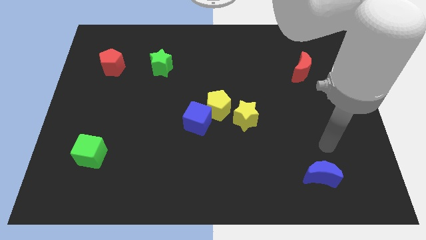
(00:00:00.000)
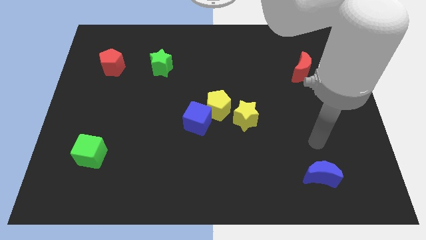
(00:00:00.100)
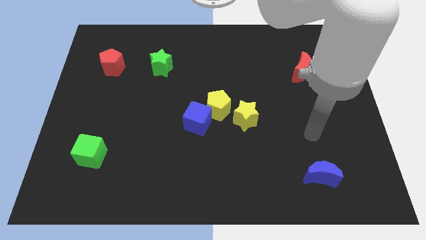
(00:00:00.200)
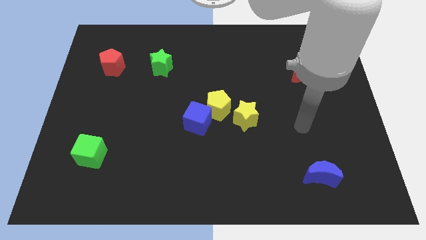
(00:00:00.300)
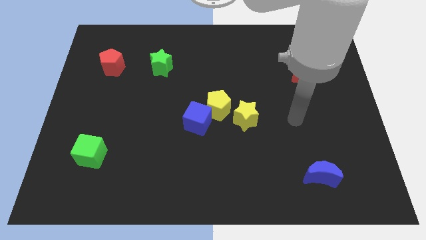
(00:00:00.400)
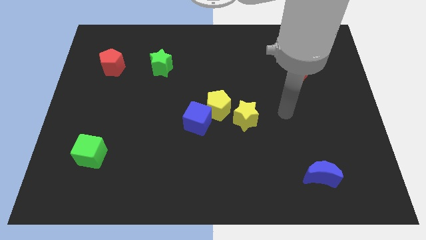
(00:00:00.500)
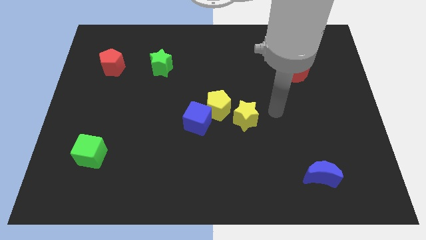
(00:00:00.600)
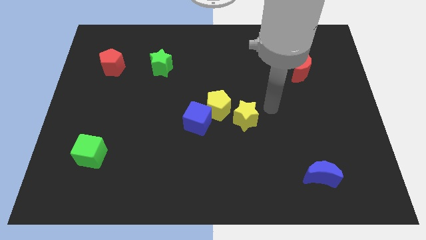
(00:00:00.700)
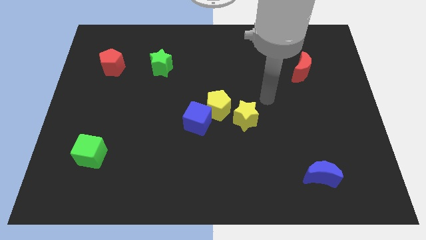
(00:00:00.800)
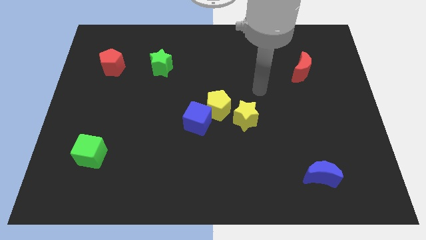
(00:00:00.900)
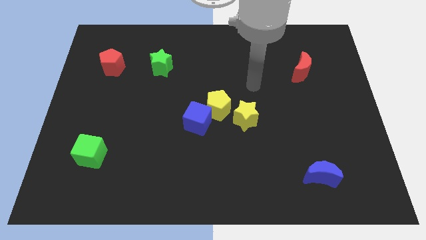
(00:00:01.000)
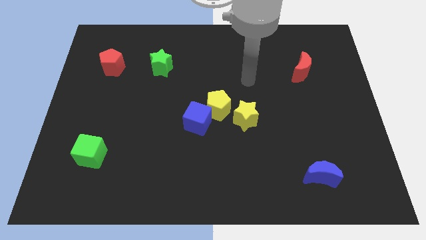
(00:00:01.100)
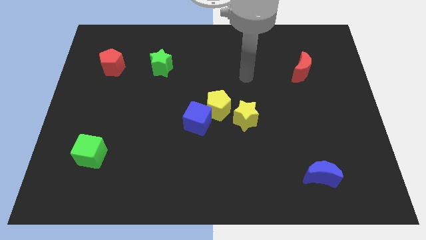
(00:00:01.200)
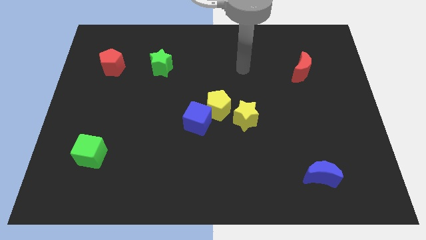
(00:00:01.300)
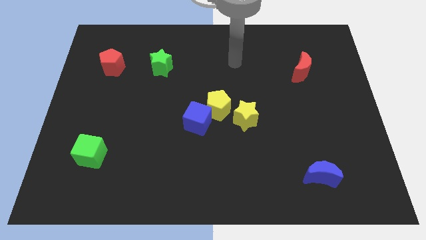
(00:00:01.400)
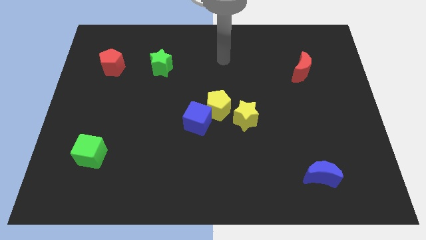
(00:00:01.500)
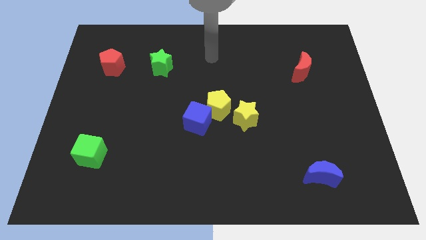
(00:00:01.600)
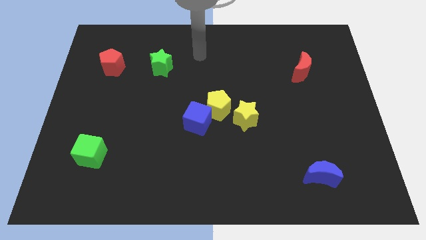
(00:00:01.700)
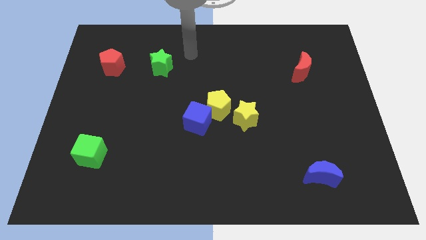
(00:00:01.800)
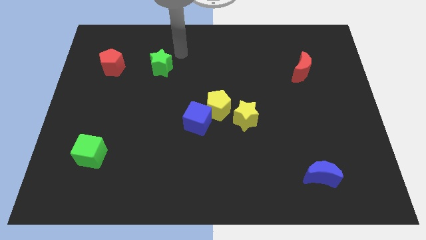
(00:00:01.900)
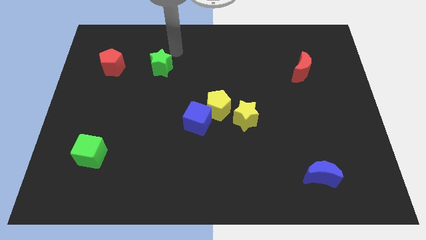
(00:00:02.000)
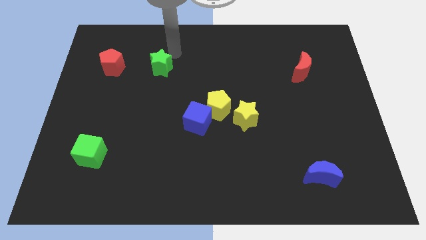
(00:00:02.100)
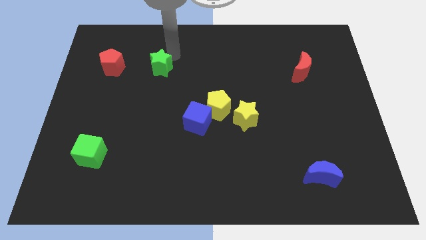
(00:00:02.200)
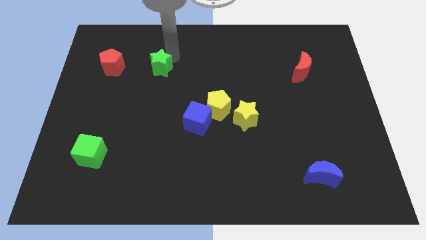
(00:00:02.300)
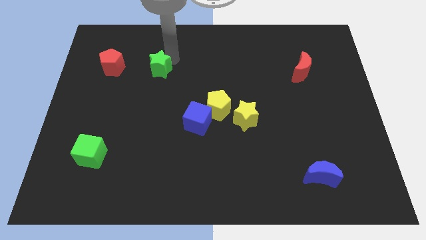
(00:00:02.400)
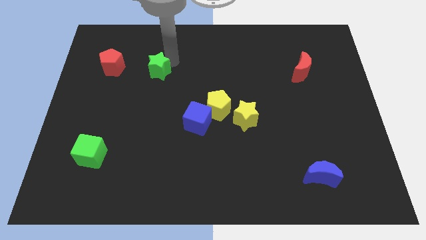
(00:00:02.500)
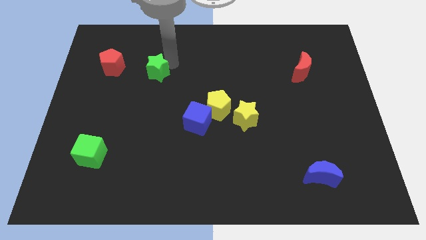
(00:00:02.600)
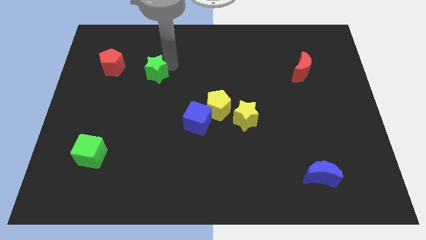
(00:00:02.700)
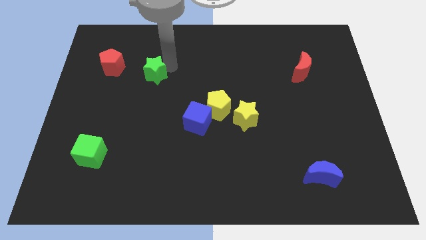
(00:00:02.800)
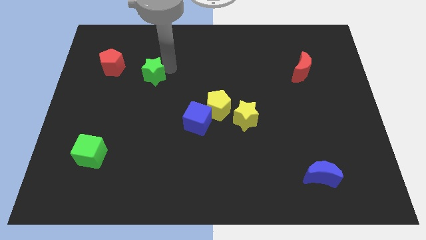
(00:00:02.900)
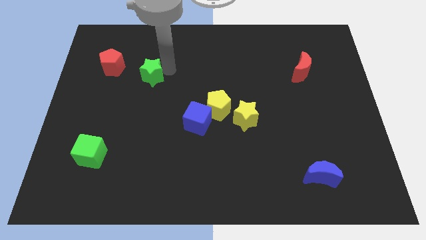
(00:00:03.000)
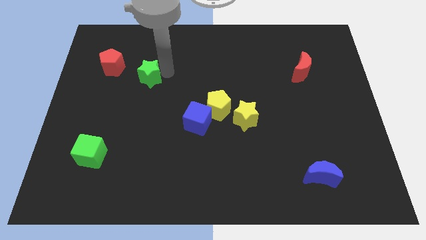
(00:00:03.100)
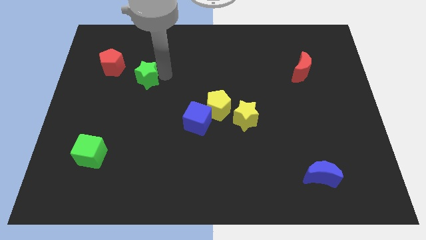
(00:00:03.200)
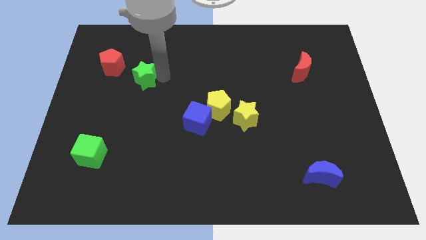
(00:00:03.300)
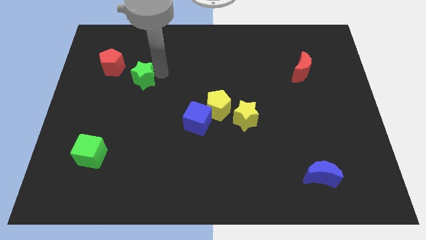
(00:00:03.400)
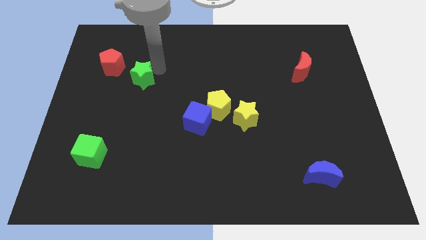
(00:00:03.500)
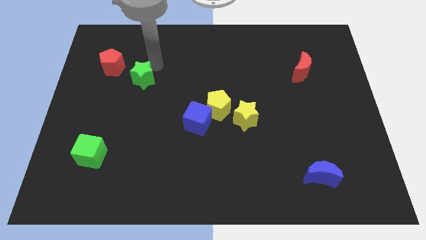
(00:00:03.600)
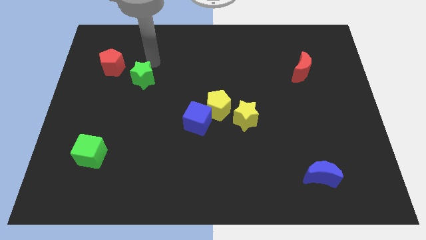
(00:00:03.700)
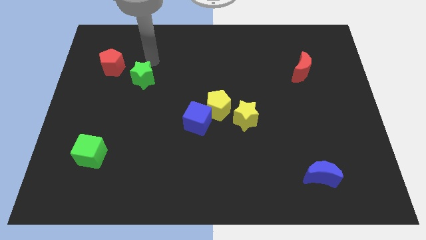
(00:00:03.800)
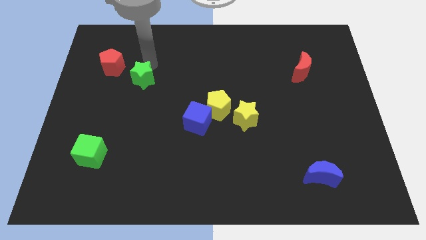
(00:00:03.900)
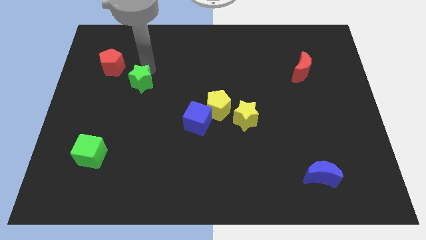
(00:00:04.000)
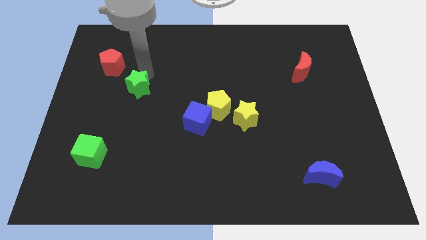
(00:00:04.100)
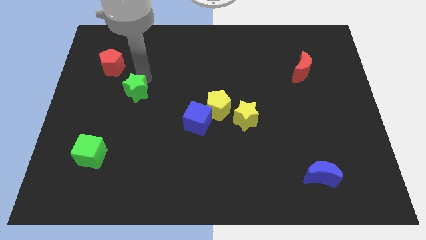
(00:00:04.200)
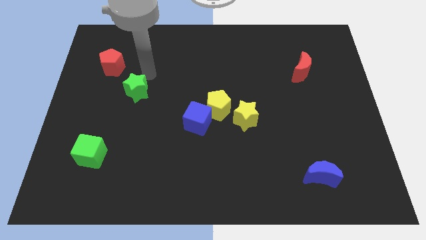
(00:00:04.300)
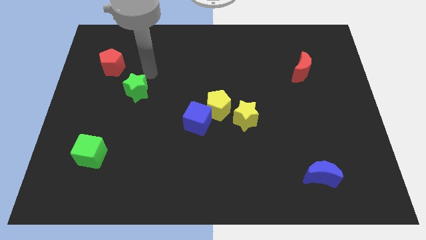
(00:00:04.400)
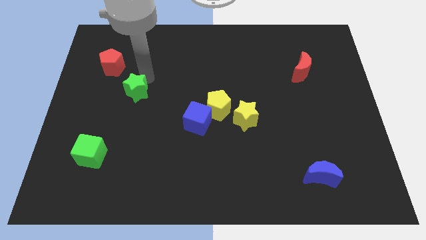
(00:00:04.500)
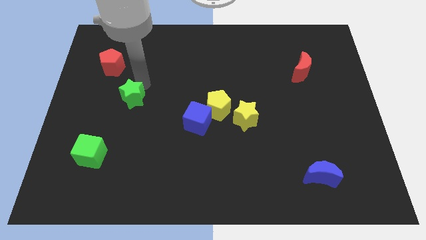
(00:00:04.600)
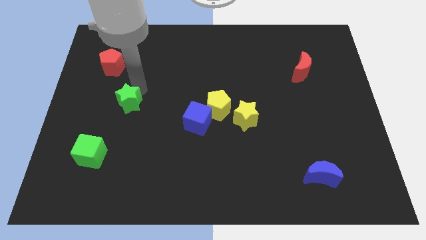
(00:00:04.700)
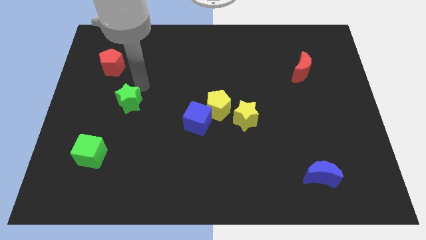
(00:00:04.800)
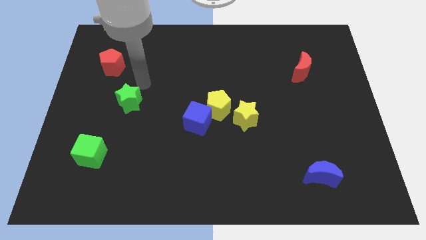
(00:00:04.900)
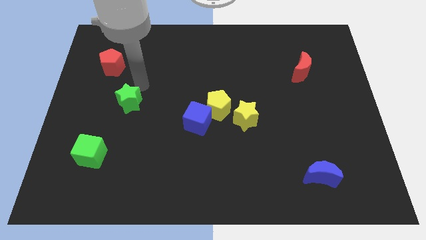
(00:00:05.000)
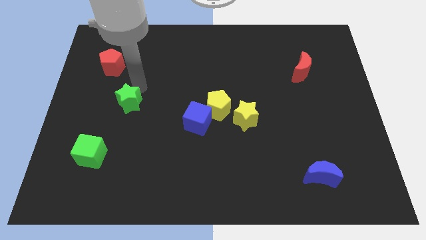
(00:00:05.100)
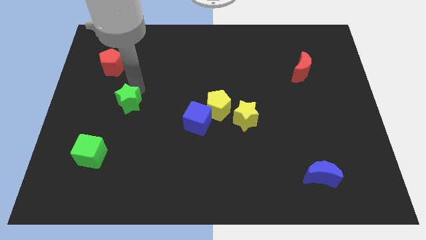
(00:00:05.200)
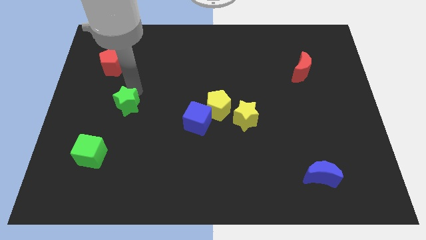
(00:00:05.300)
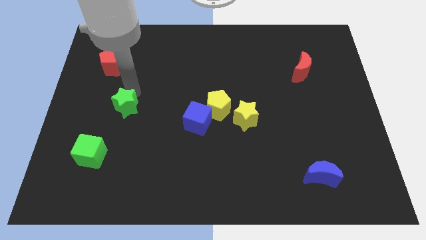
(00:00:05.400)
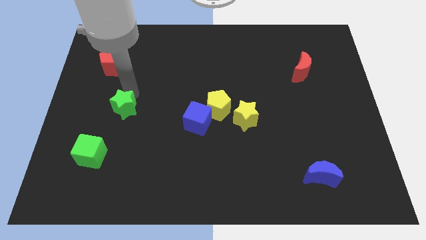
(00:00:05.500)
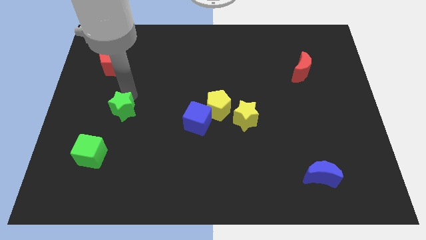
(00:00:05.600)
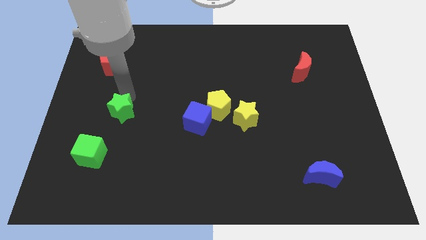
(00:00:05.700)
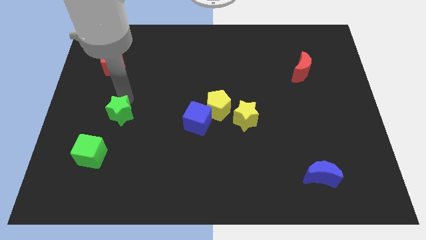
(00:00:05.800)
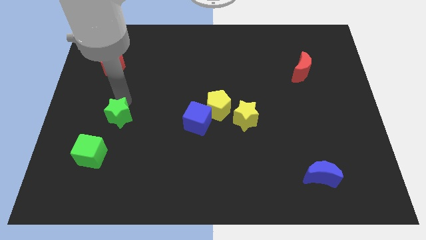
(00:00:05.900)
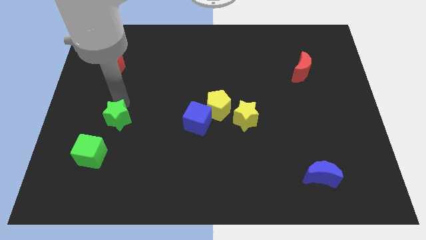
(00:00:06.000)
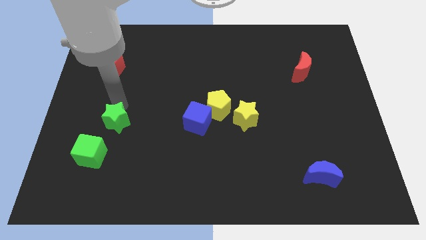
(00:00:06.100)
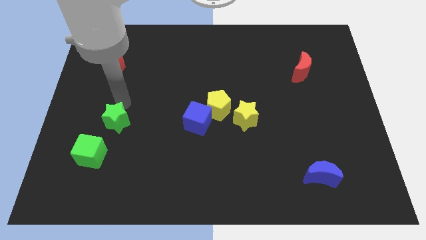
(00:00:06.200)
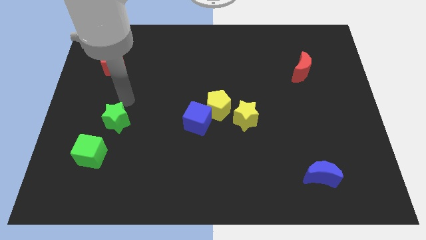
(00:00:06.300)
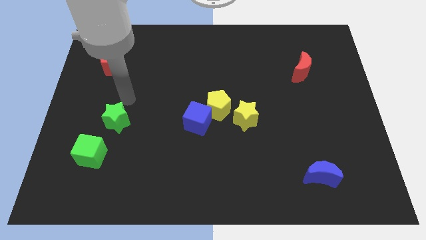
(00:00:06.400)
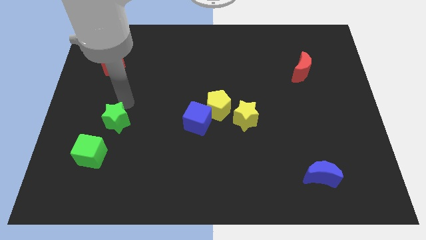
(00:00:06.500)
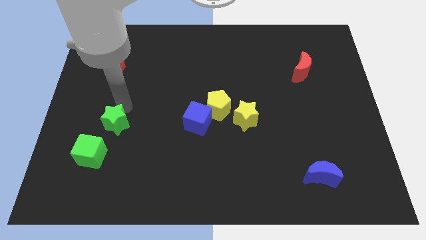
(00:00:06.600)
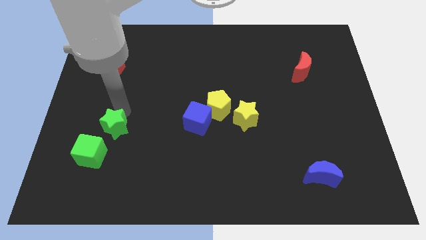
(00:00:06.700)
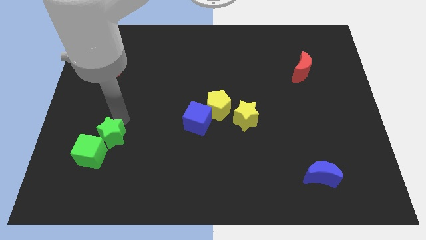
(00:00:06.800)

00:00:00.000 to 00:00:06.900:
put the green star close to the green cube

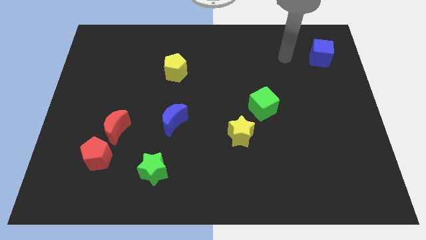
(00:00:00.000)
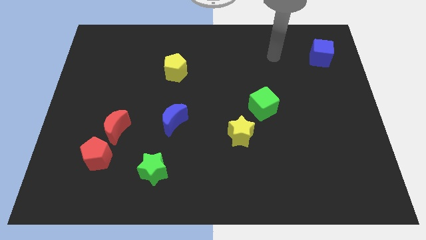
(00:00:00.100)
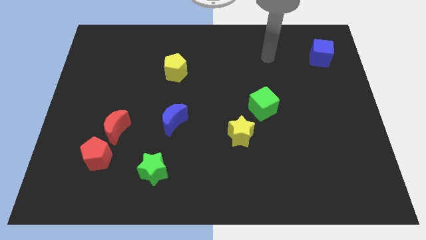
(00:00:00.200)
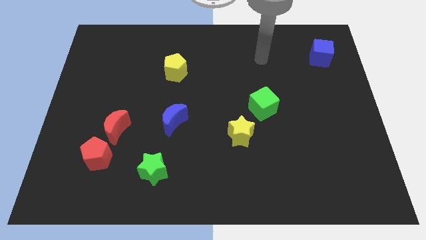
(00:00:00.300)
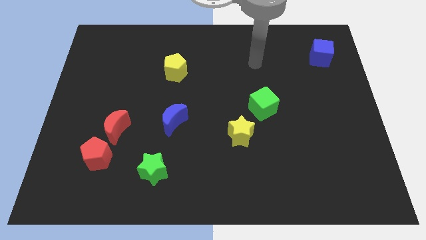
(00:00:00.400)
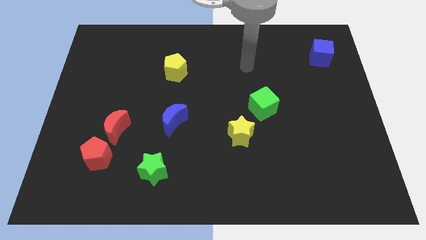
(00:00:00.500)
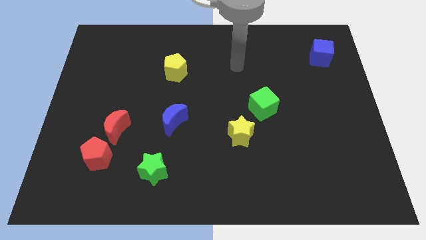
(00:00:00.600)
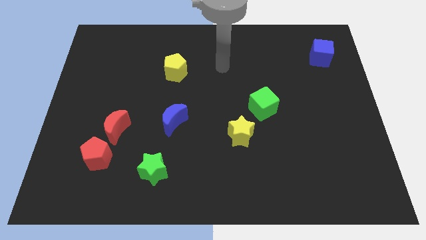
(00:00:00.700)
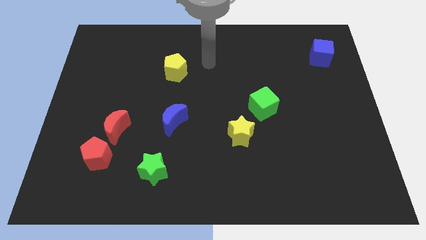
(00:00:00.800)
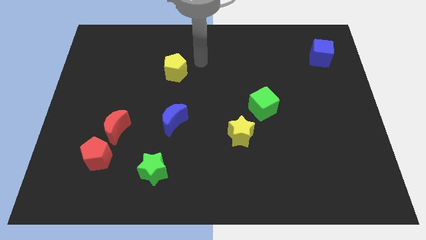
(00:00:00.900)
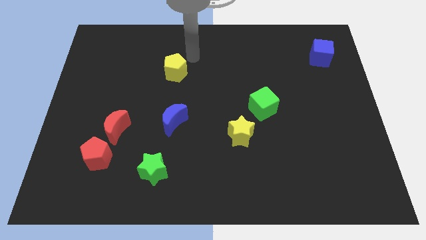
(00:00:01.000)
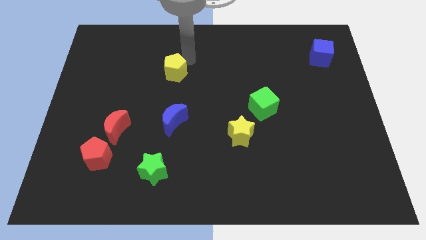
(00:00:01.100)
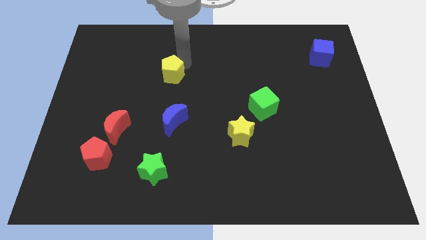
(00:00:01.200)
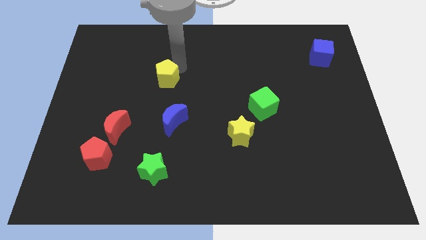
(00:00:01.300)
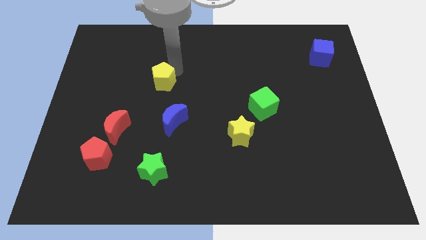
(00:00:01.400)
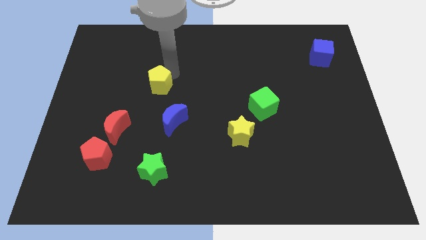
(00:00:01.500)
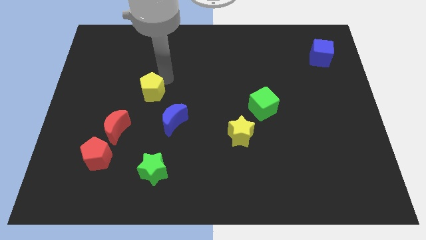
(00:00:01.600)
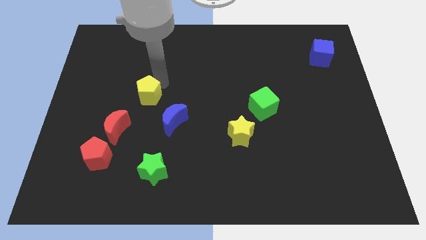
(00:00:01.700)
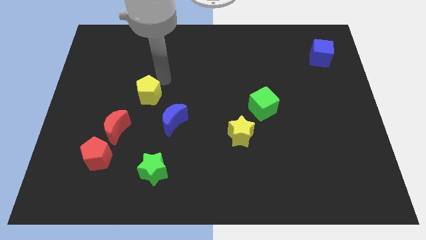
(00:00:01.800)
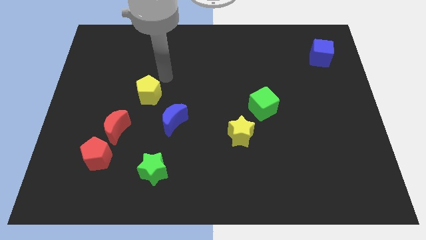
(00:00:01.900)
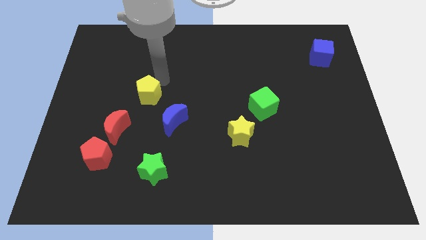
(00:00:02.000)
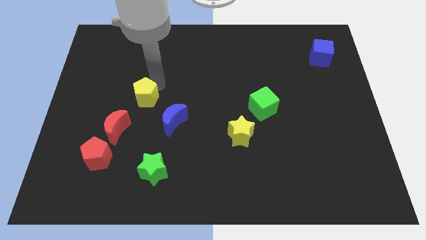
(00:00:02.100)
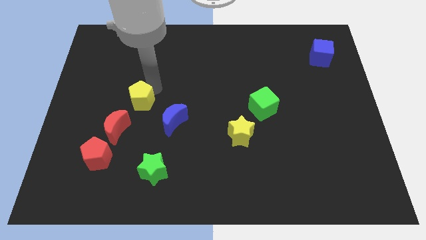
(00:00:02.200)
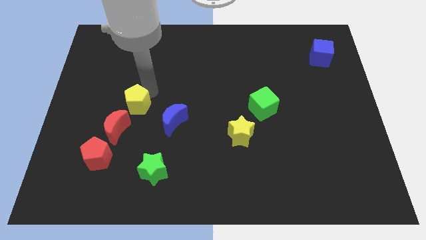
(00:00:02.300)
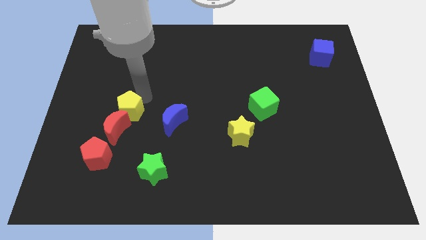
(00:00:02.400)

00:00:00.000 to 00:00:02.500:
push the yellow pentagon next to the red moon
